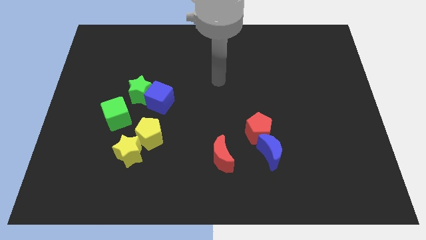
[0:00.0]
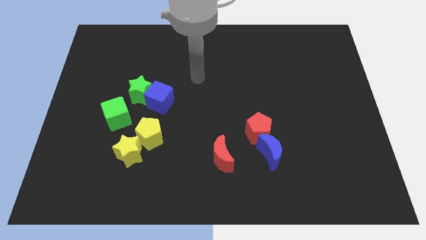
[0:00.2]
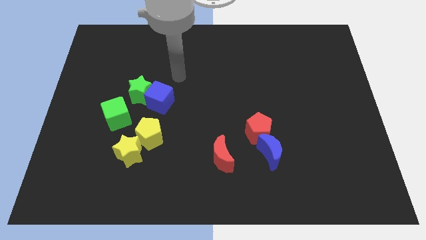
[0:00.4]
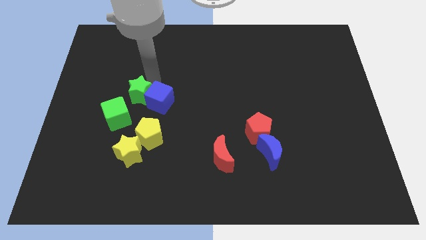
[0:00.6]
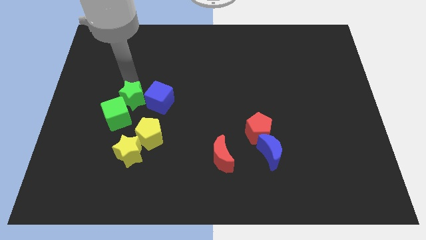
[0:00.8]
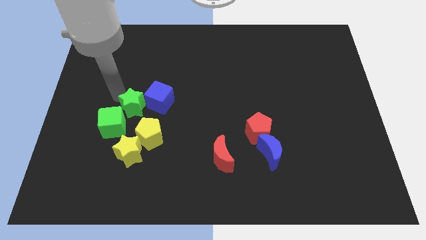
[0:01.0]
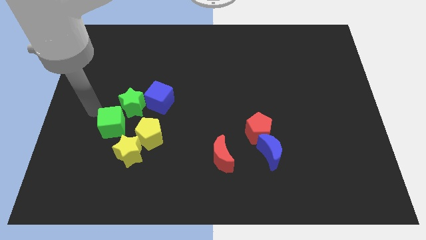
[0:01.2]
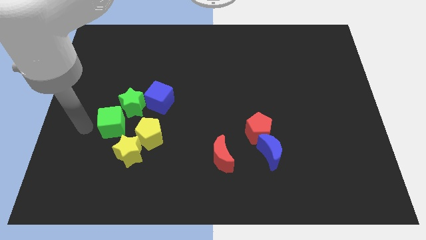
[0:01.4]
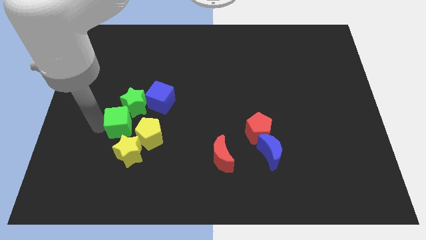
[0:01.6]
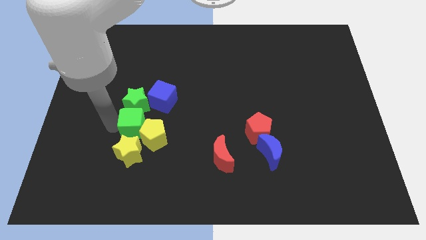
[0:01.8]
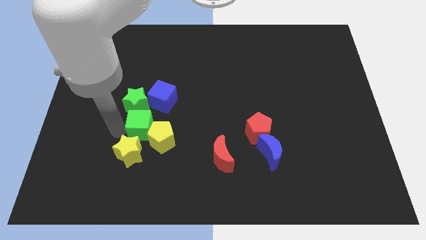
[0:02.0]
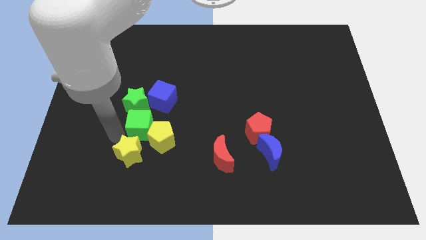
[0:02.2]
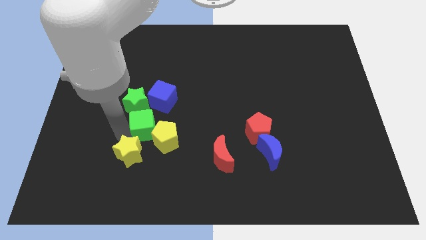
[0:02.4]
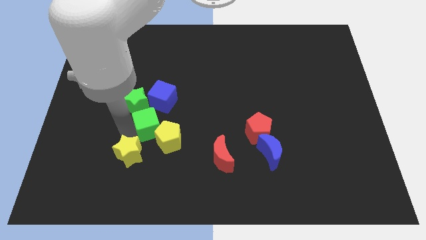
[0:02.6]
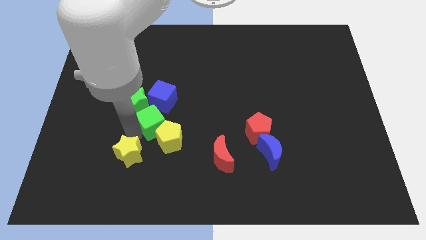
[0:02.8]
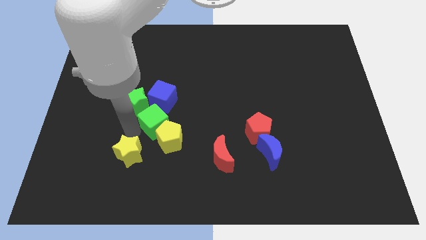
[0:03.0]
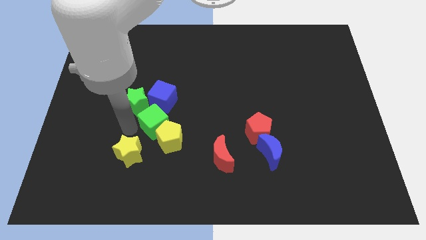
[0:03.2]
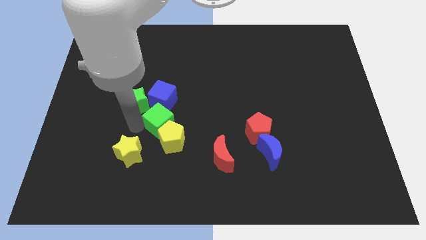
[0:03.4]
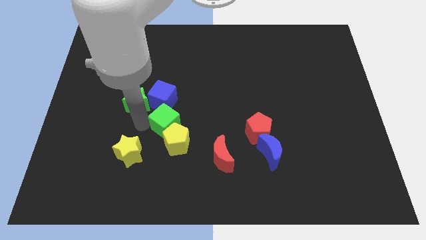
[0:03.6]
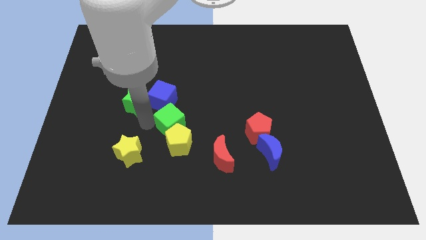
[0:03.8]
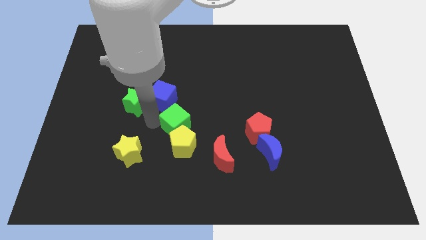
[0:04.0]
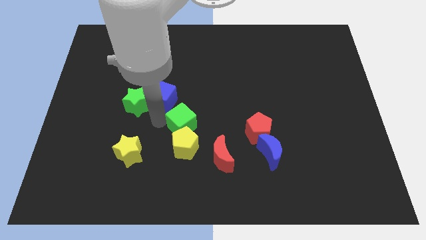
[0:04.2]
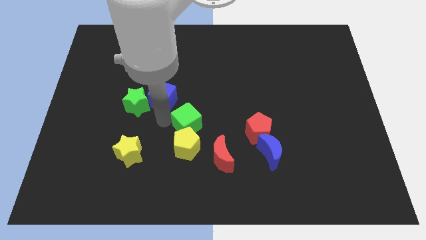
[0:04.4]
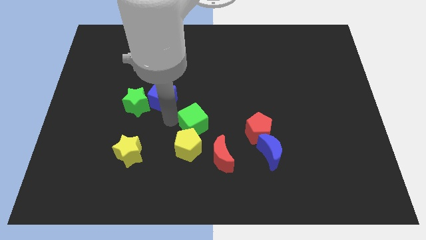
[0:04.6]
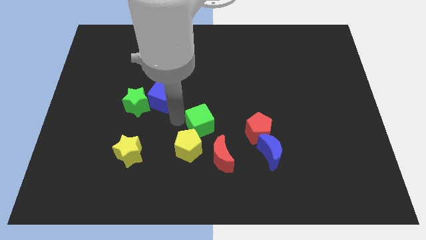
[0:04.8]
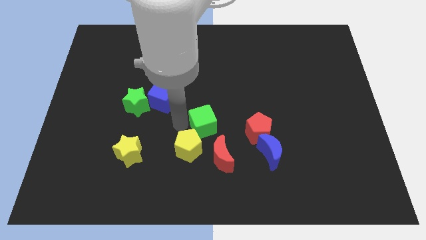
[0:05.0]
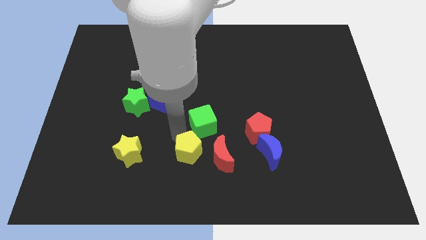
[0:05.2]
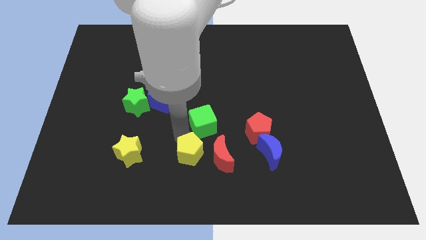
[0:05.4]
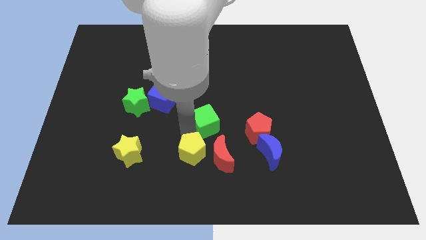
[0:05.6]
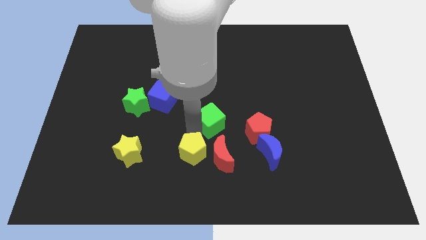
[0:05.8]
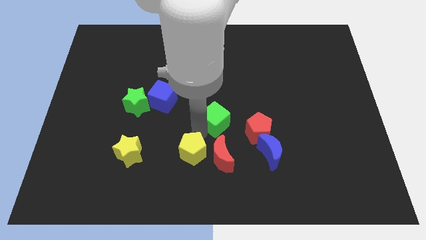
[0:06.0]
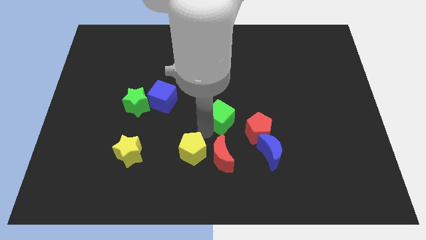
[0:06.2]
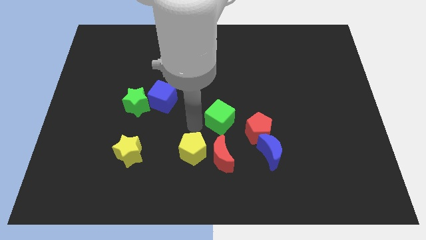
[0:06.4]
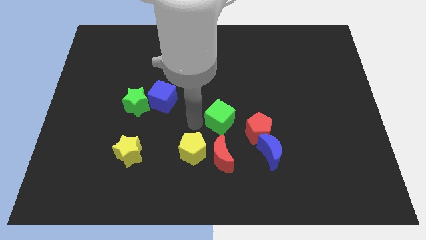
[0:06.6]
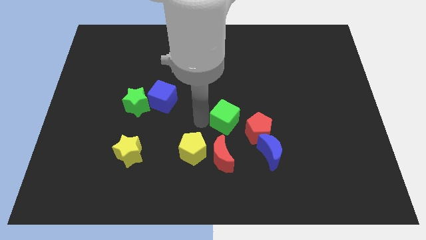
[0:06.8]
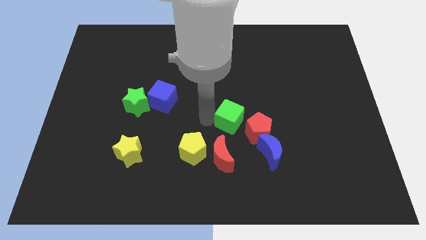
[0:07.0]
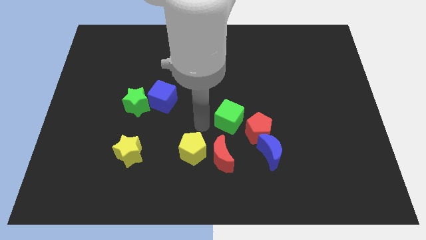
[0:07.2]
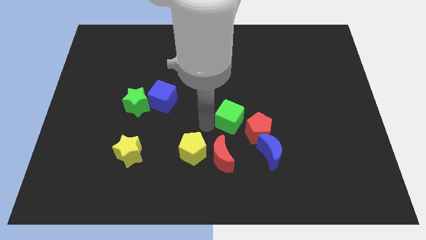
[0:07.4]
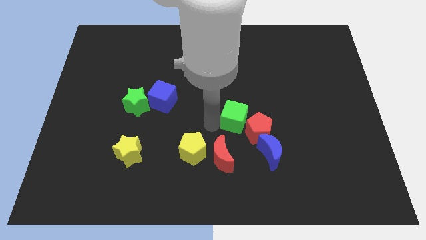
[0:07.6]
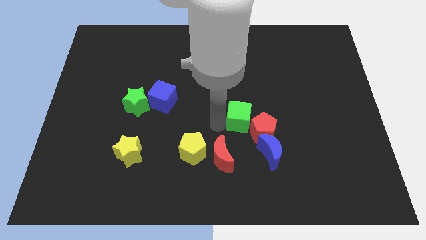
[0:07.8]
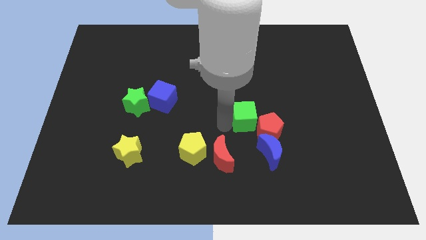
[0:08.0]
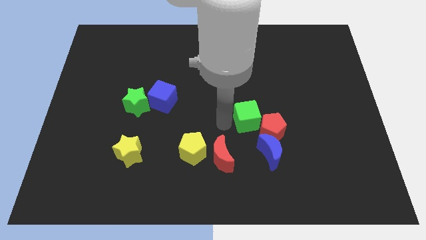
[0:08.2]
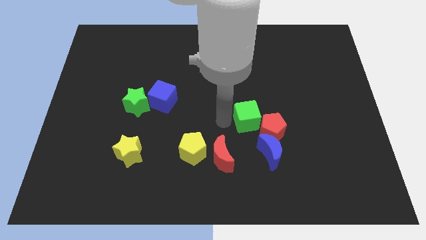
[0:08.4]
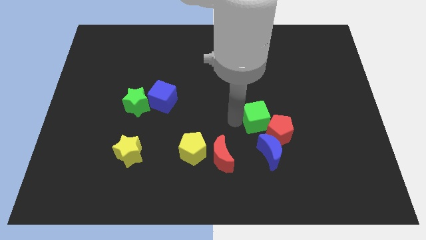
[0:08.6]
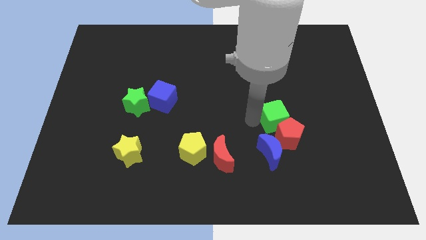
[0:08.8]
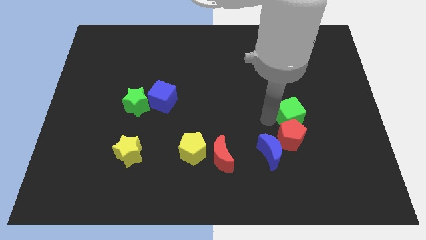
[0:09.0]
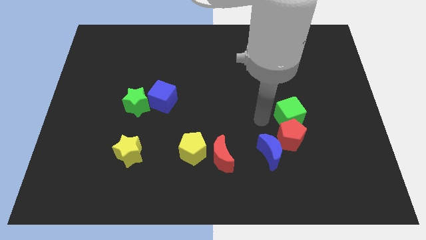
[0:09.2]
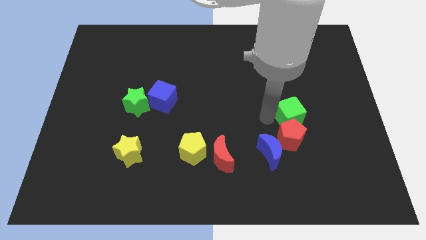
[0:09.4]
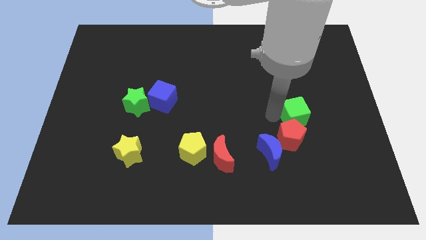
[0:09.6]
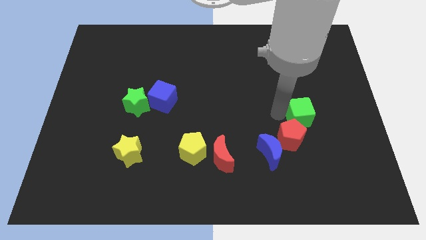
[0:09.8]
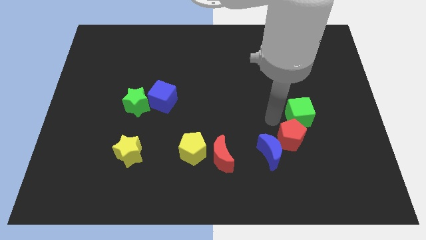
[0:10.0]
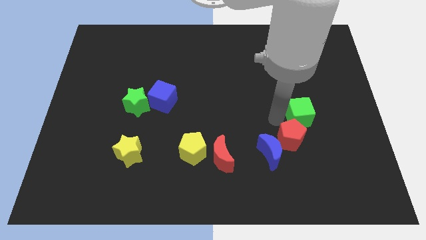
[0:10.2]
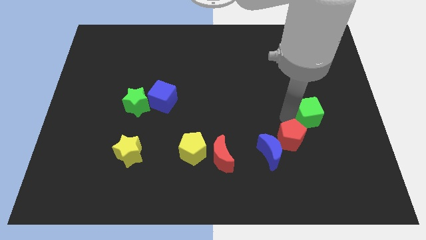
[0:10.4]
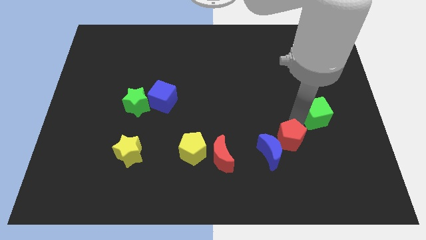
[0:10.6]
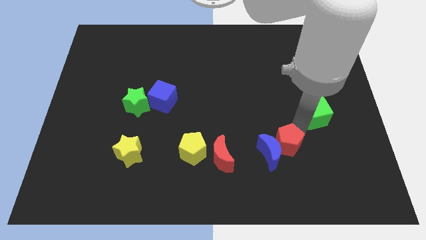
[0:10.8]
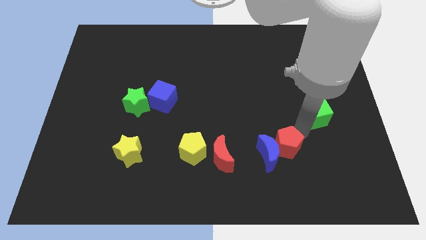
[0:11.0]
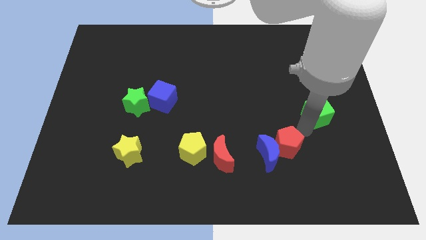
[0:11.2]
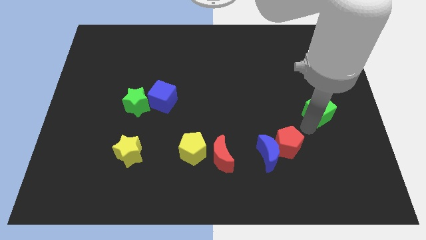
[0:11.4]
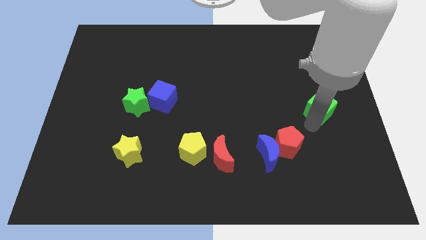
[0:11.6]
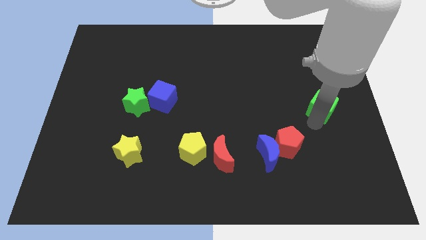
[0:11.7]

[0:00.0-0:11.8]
move the green cube to the right side of the board

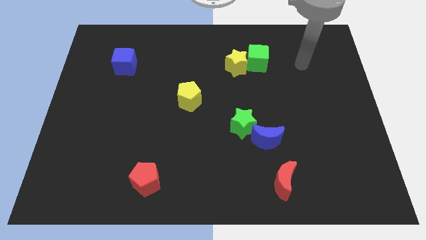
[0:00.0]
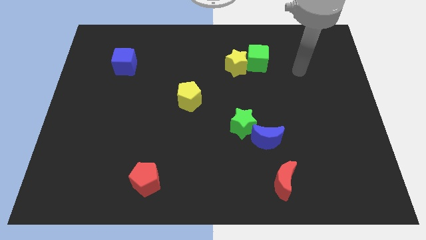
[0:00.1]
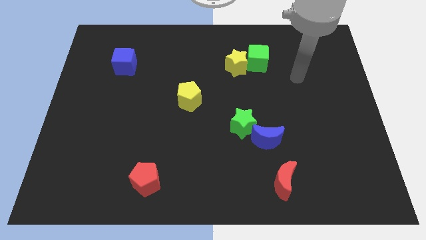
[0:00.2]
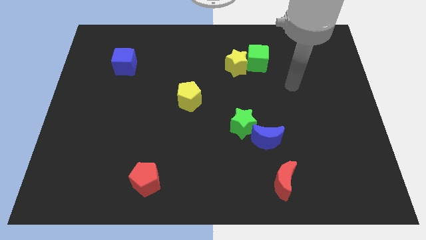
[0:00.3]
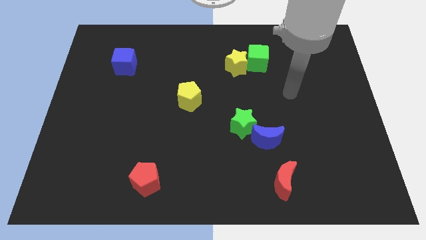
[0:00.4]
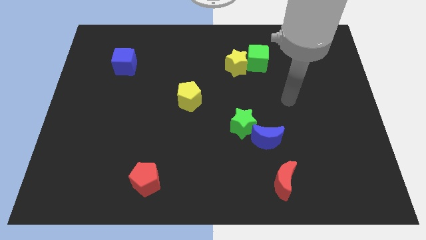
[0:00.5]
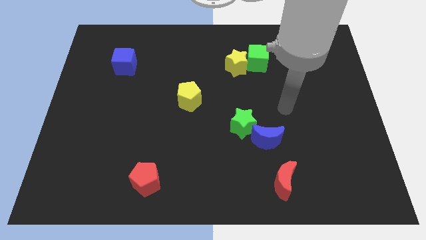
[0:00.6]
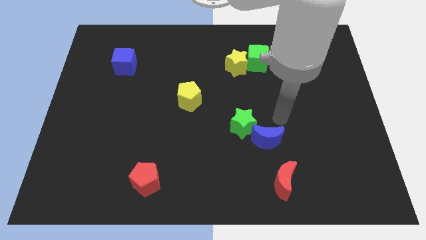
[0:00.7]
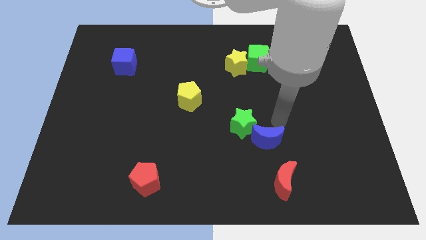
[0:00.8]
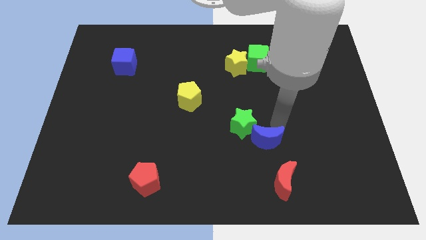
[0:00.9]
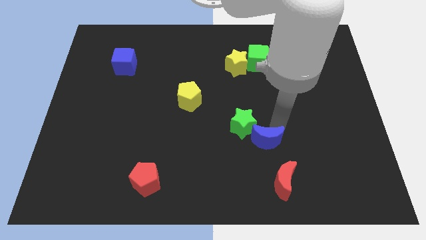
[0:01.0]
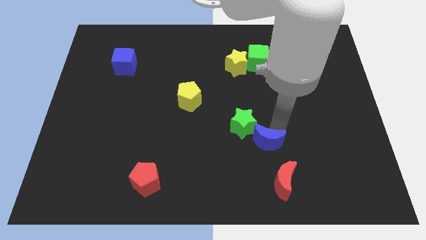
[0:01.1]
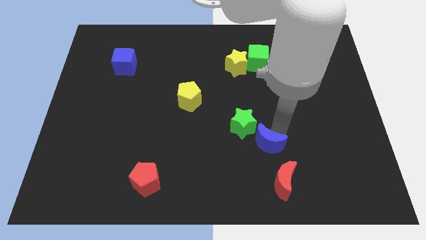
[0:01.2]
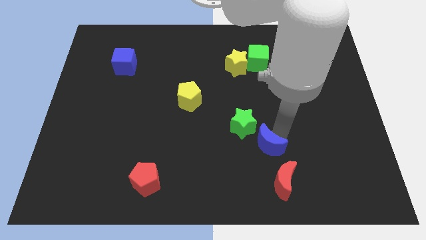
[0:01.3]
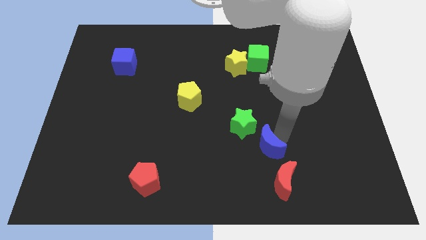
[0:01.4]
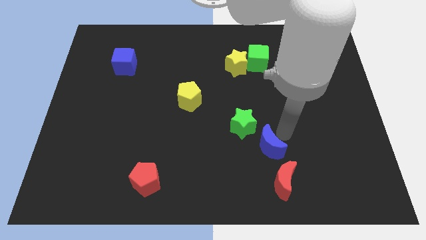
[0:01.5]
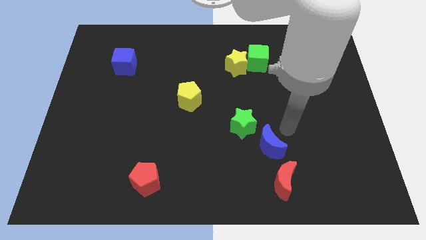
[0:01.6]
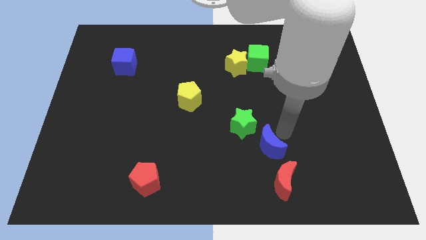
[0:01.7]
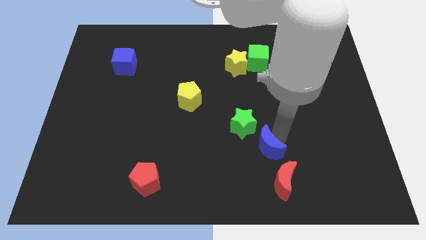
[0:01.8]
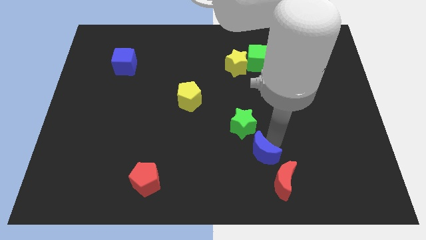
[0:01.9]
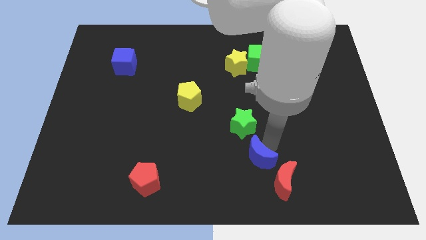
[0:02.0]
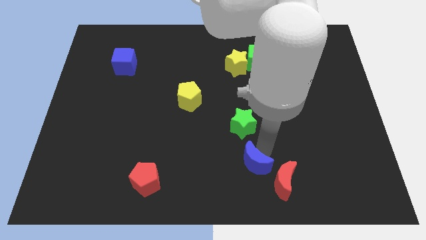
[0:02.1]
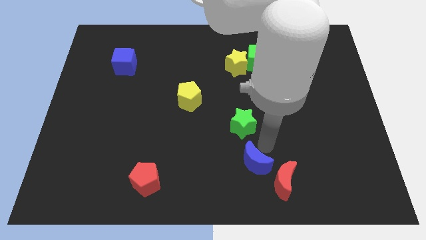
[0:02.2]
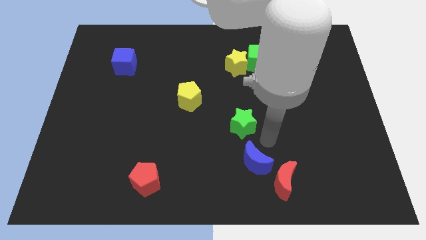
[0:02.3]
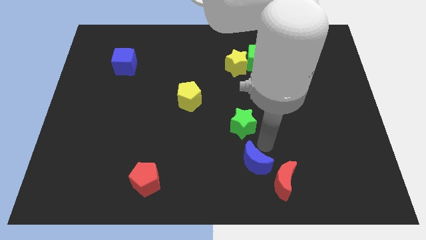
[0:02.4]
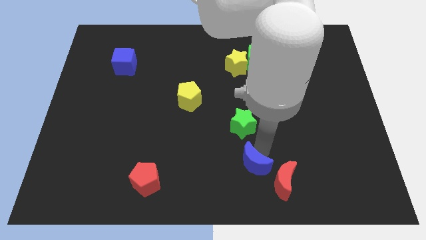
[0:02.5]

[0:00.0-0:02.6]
move the blue moon to the bottom side
